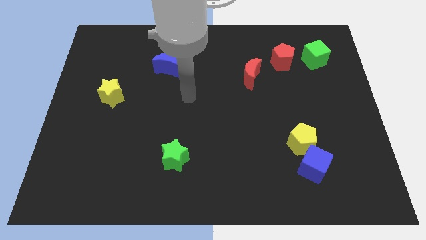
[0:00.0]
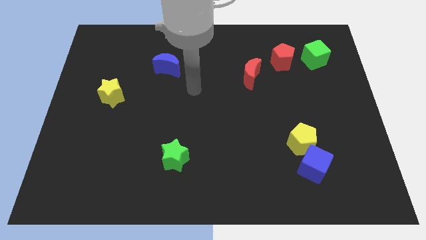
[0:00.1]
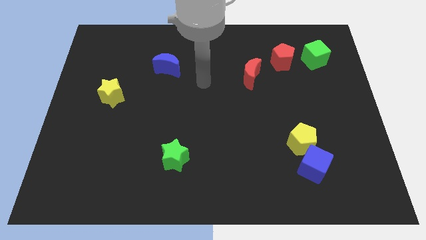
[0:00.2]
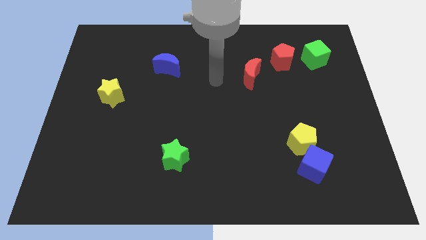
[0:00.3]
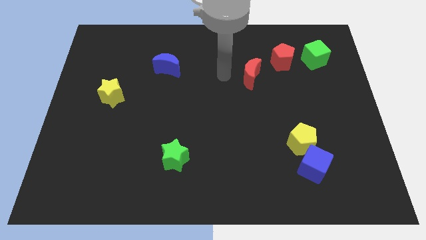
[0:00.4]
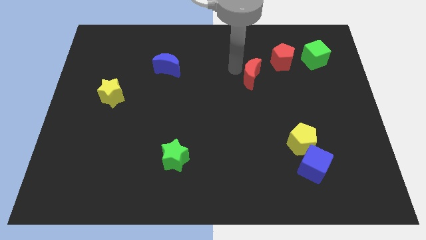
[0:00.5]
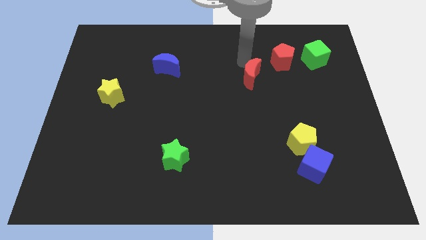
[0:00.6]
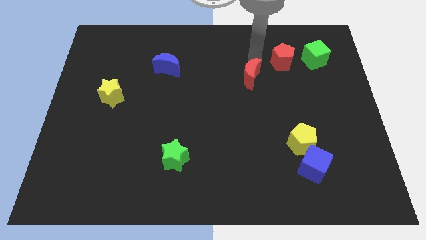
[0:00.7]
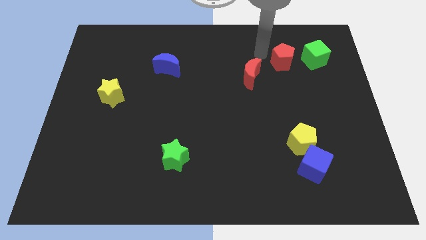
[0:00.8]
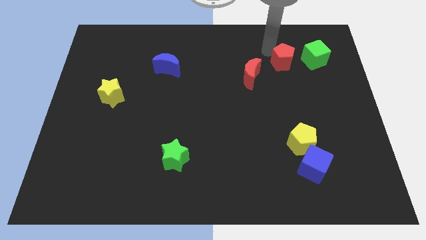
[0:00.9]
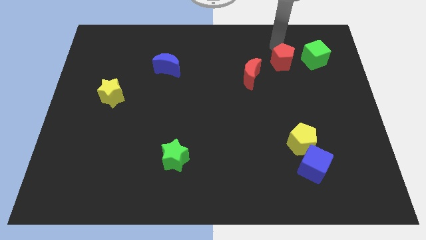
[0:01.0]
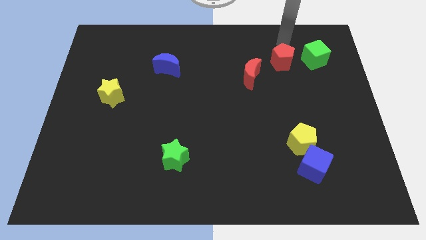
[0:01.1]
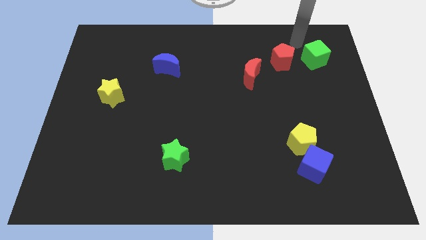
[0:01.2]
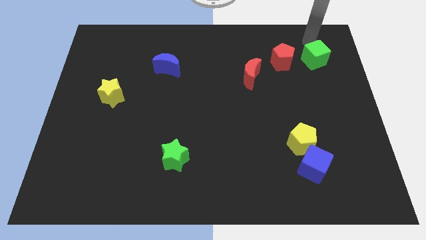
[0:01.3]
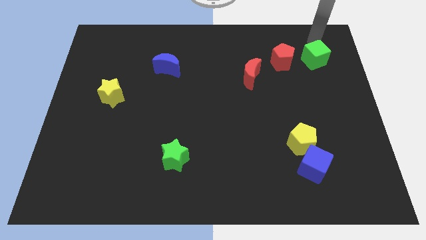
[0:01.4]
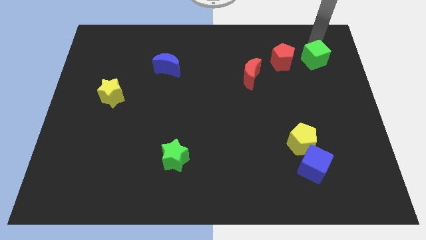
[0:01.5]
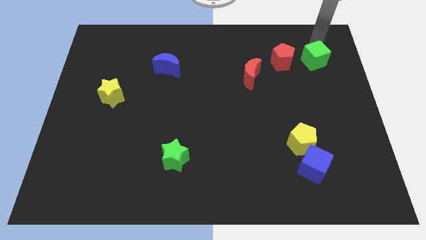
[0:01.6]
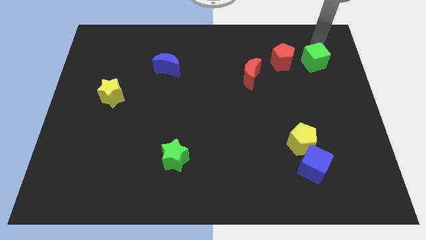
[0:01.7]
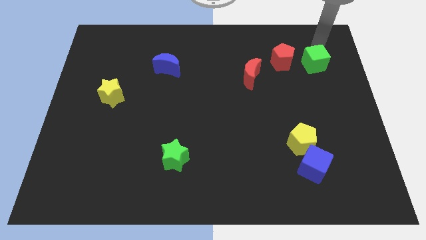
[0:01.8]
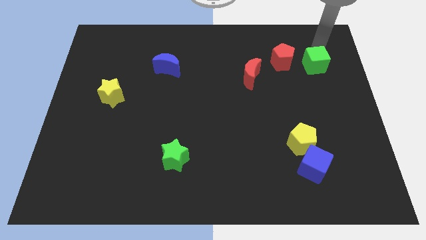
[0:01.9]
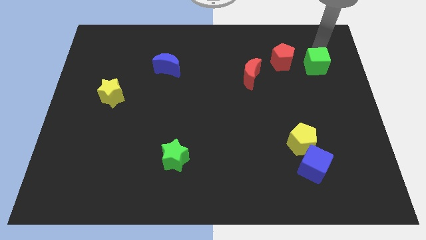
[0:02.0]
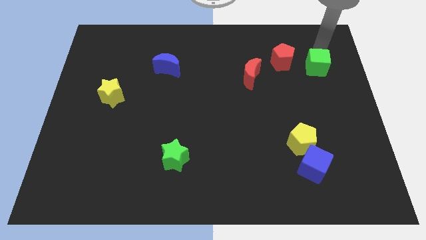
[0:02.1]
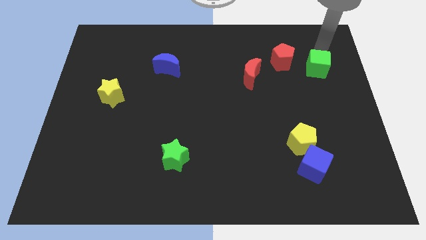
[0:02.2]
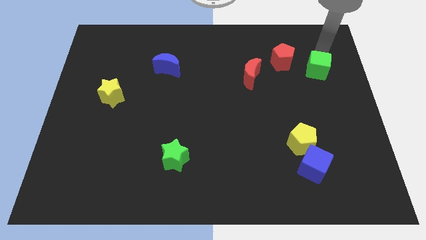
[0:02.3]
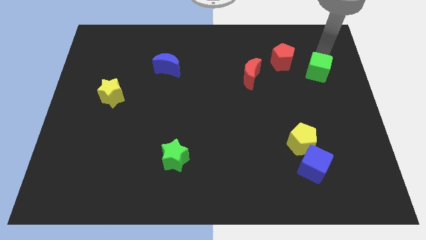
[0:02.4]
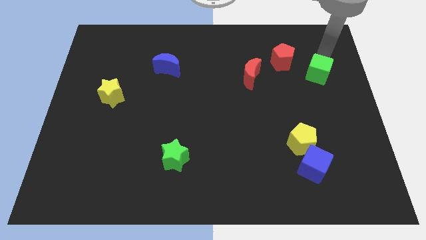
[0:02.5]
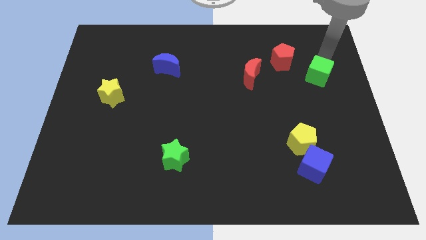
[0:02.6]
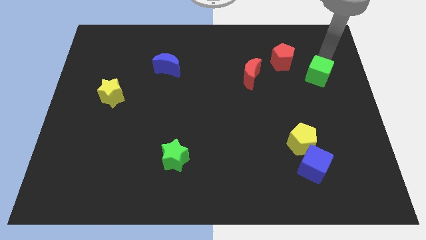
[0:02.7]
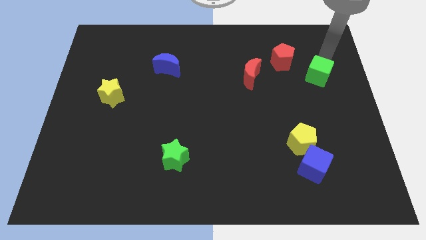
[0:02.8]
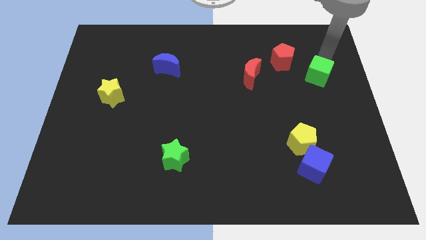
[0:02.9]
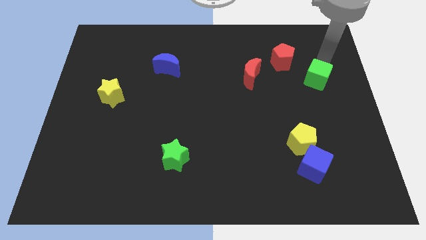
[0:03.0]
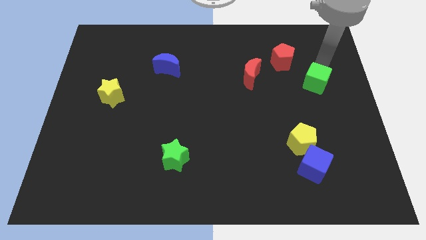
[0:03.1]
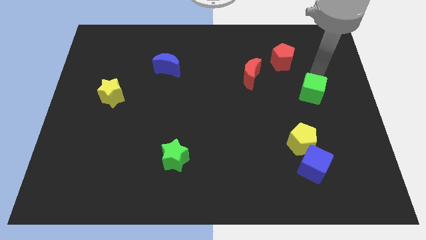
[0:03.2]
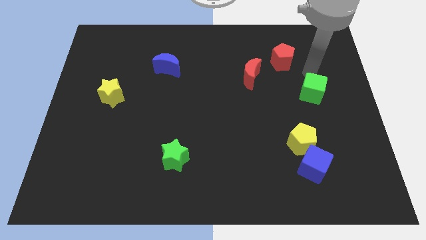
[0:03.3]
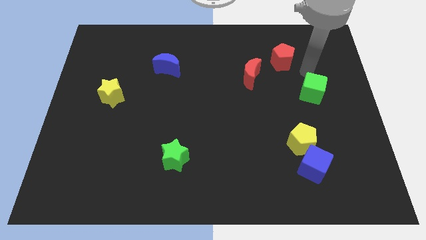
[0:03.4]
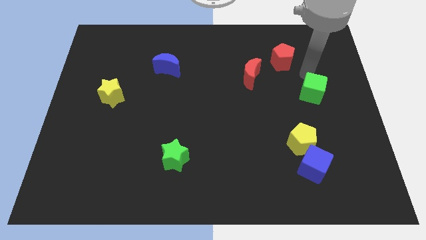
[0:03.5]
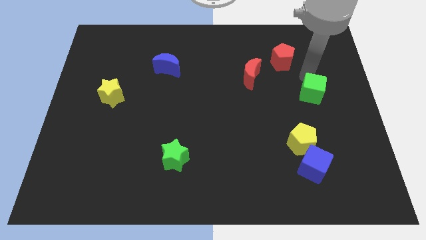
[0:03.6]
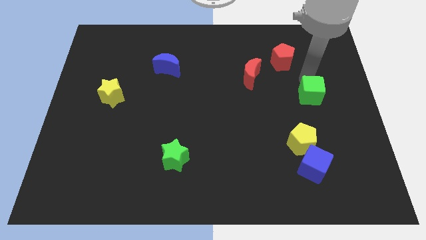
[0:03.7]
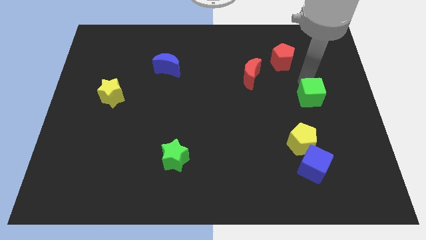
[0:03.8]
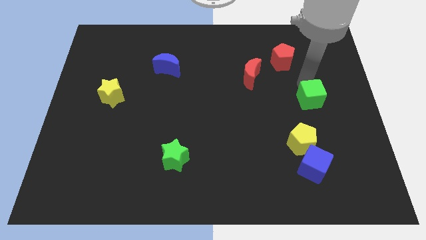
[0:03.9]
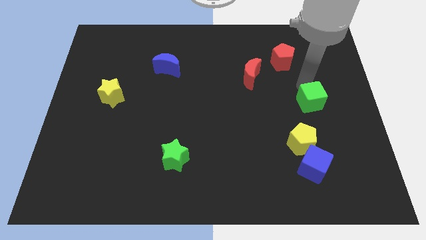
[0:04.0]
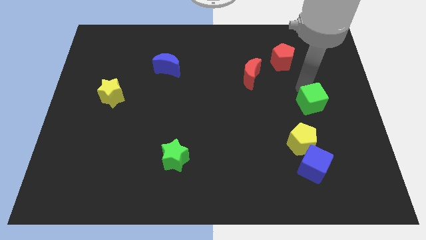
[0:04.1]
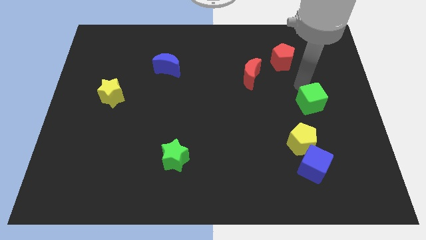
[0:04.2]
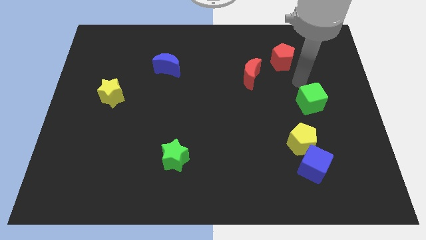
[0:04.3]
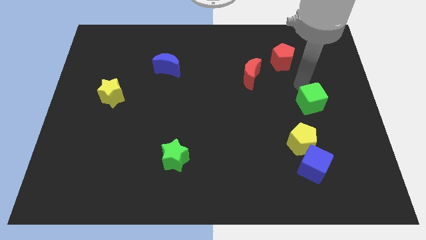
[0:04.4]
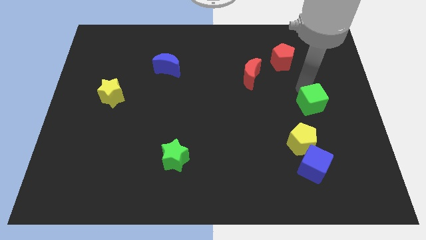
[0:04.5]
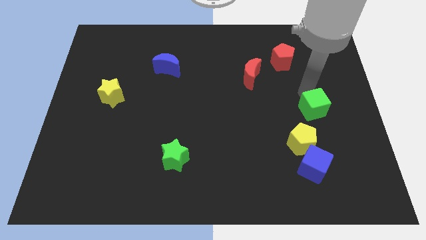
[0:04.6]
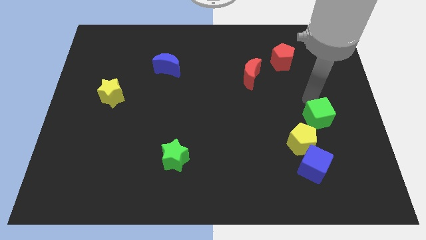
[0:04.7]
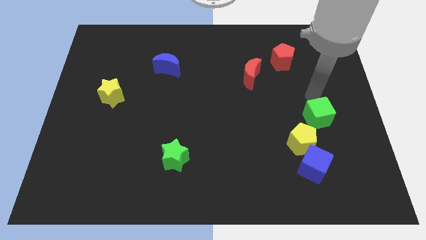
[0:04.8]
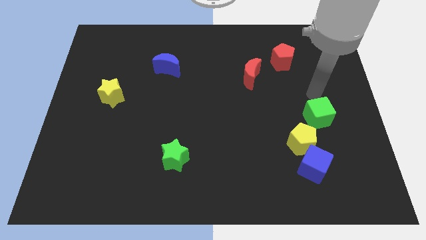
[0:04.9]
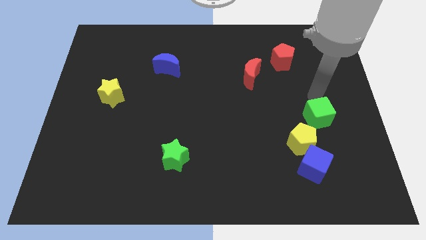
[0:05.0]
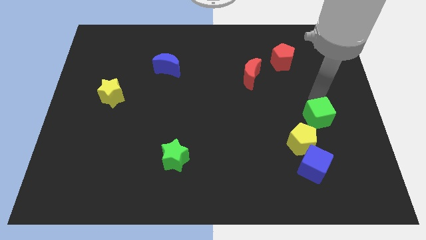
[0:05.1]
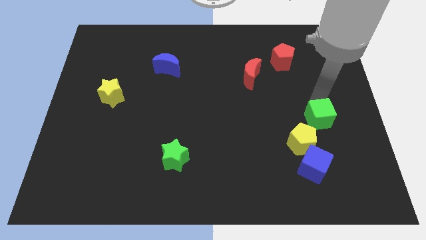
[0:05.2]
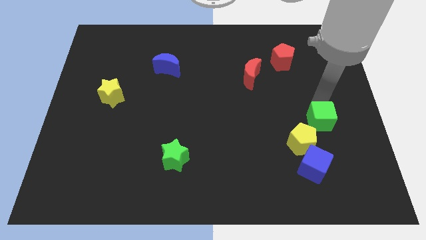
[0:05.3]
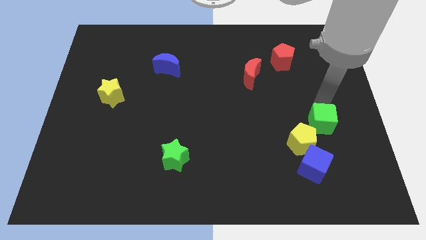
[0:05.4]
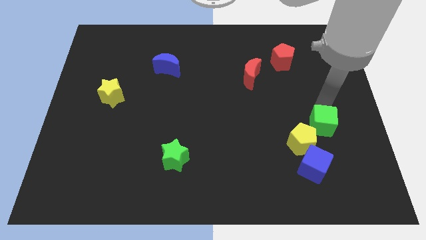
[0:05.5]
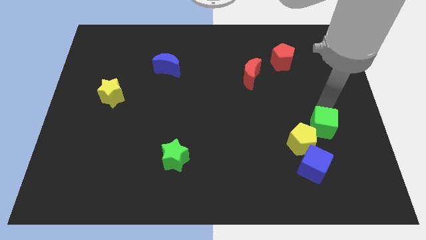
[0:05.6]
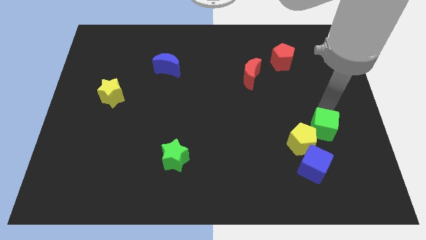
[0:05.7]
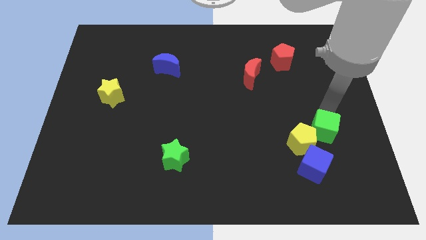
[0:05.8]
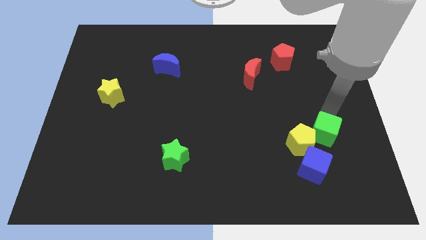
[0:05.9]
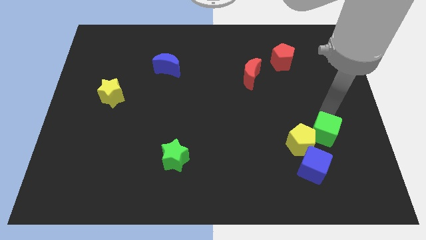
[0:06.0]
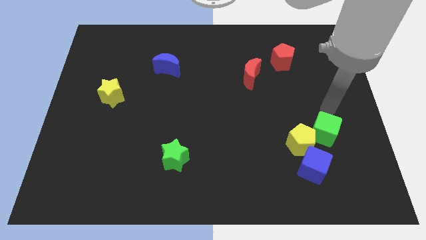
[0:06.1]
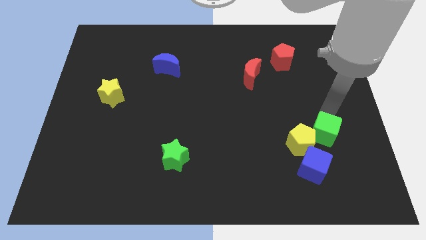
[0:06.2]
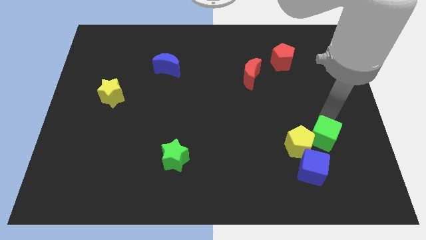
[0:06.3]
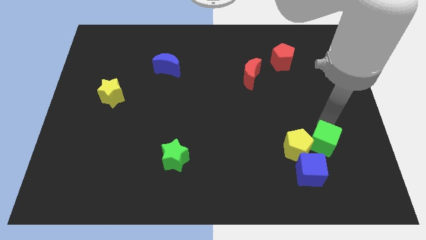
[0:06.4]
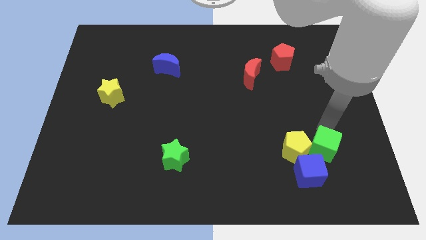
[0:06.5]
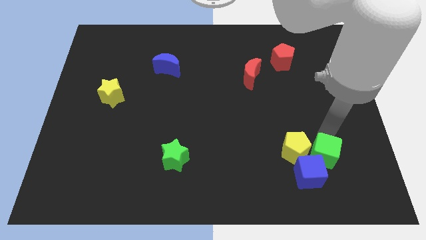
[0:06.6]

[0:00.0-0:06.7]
put the green cube next to the blue cube

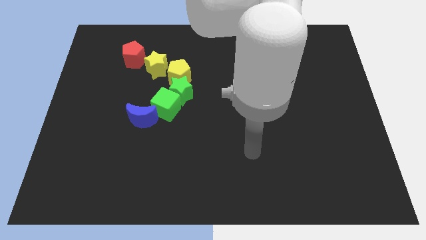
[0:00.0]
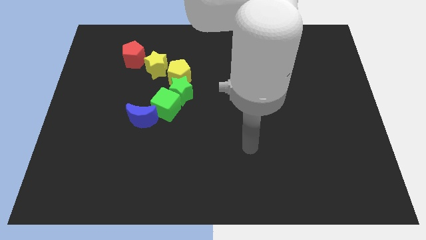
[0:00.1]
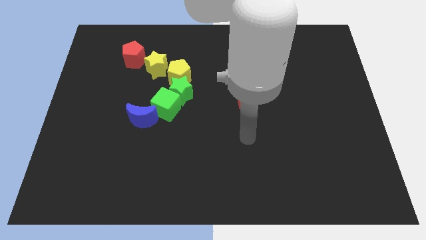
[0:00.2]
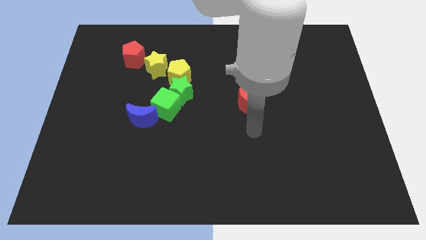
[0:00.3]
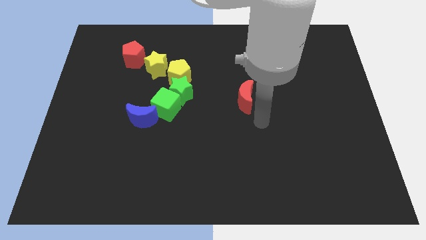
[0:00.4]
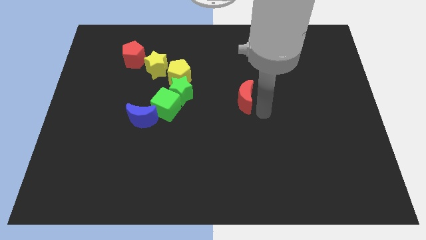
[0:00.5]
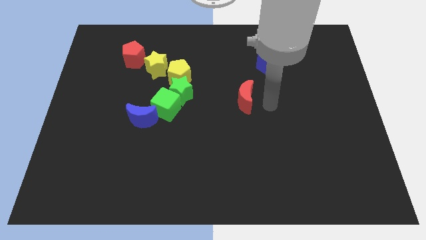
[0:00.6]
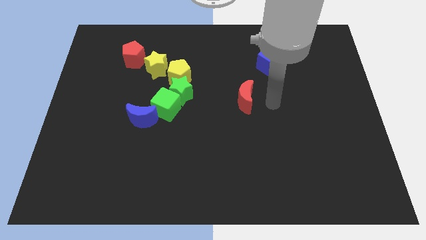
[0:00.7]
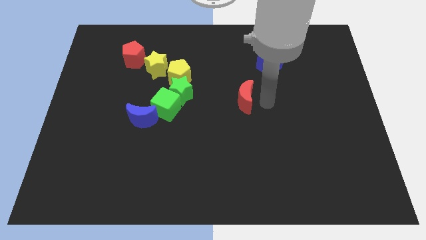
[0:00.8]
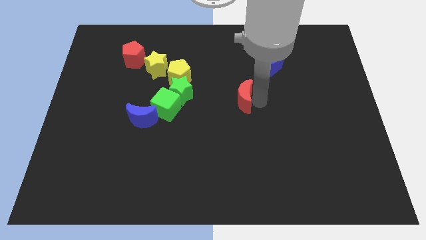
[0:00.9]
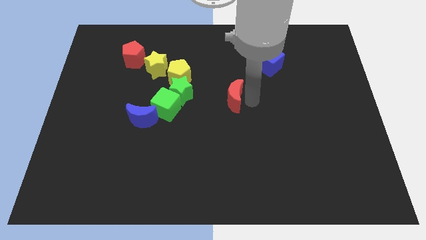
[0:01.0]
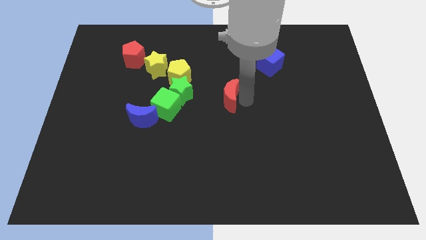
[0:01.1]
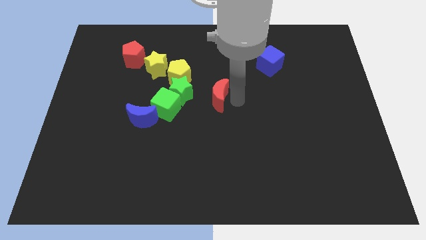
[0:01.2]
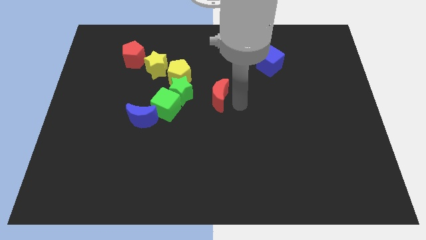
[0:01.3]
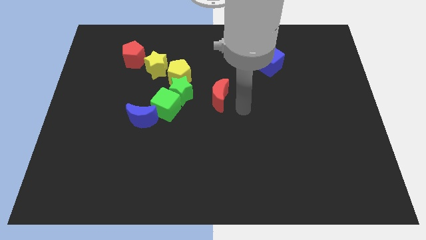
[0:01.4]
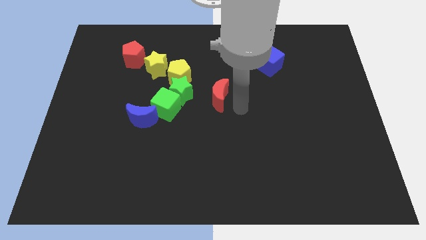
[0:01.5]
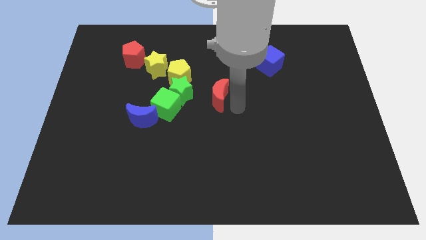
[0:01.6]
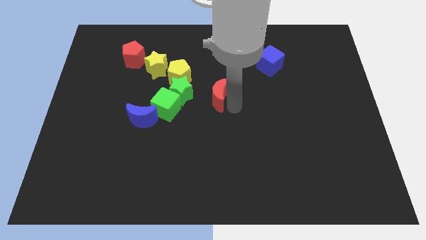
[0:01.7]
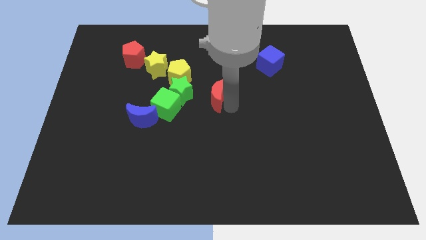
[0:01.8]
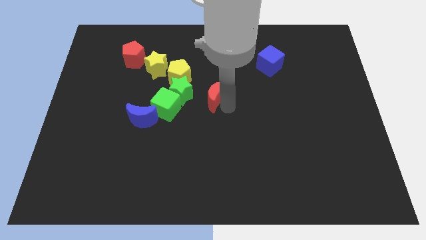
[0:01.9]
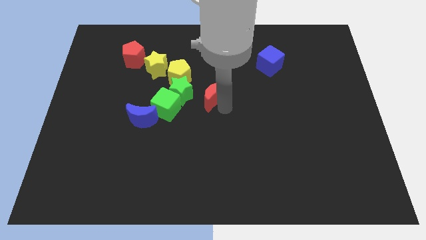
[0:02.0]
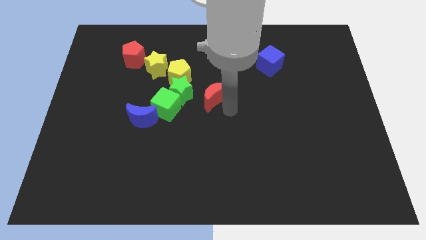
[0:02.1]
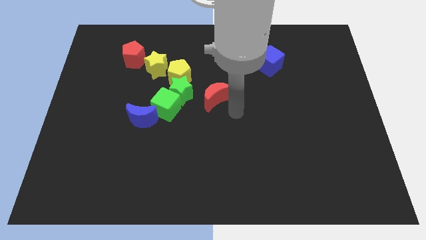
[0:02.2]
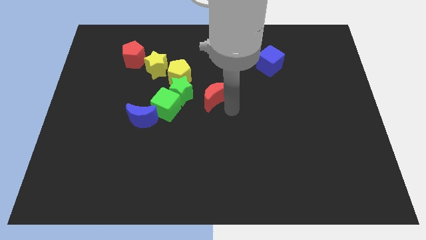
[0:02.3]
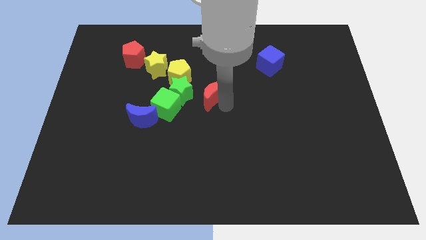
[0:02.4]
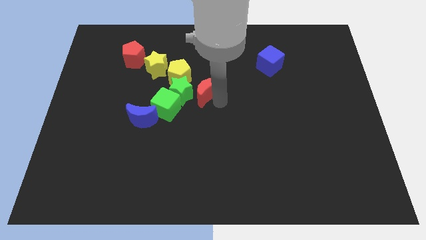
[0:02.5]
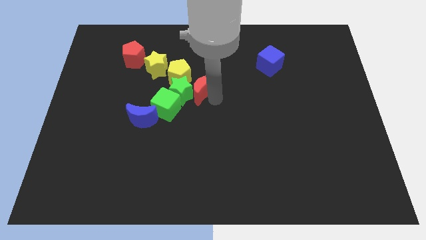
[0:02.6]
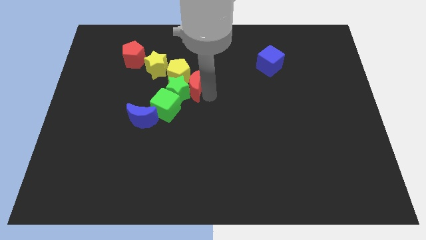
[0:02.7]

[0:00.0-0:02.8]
move the red moon close to the yellow pentagon
